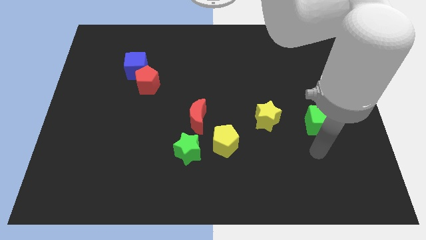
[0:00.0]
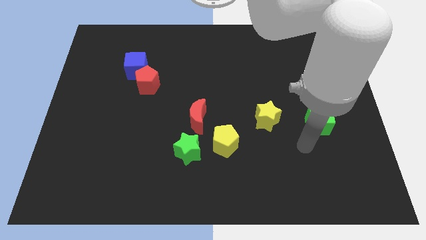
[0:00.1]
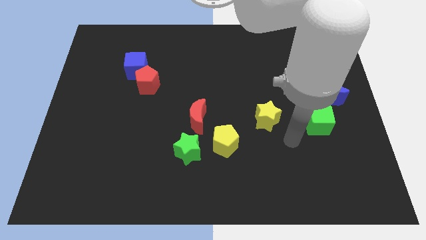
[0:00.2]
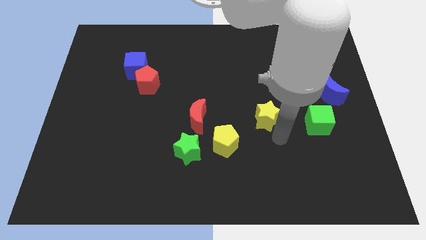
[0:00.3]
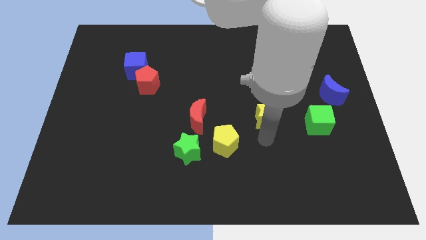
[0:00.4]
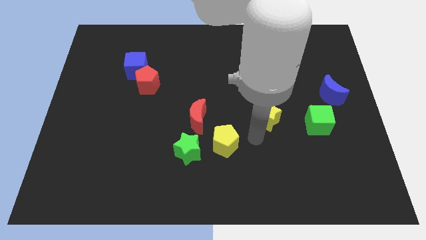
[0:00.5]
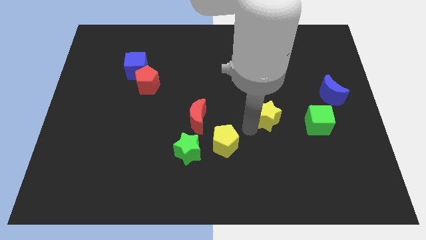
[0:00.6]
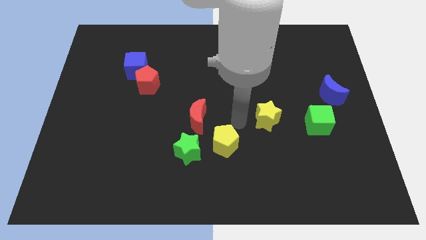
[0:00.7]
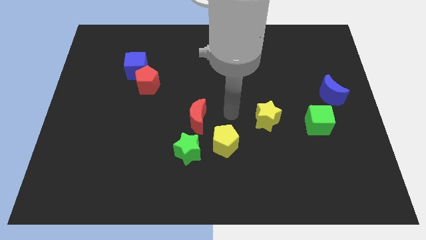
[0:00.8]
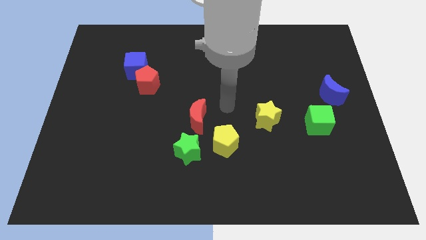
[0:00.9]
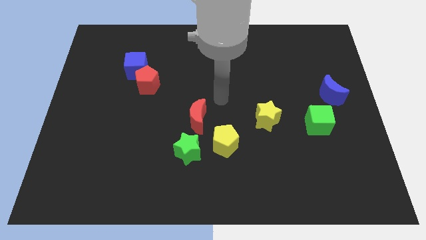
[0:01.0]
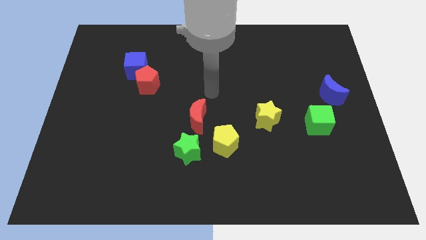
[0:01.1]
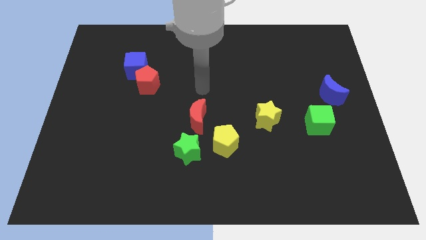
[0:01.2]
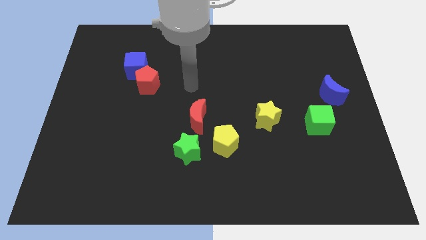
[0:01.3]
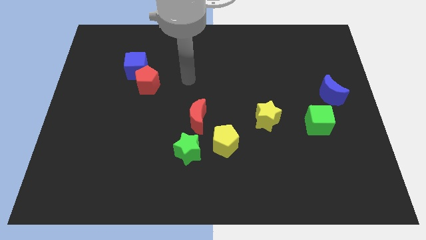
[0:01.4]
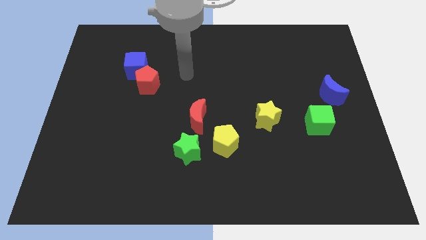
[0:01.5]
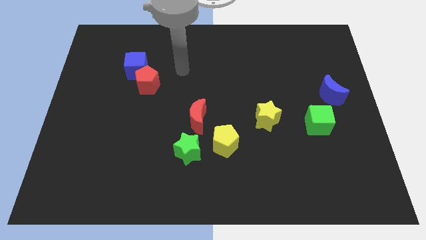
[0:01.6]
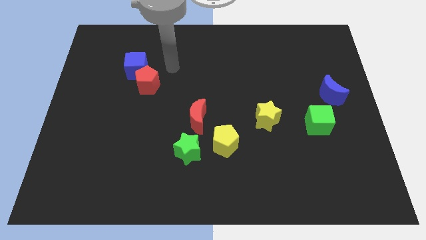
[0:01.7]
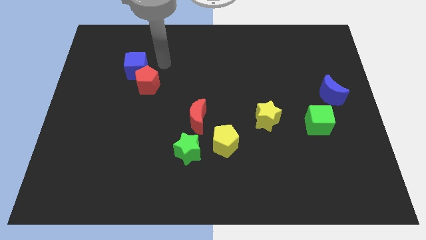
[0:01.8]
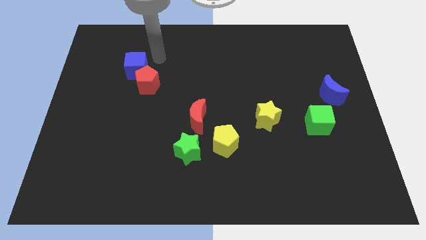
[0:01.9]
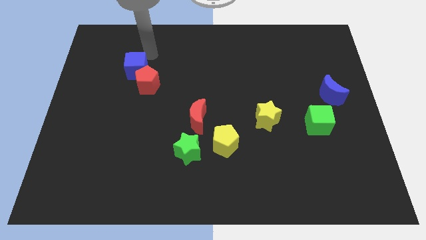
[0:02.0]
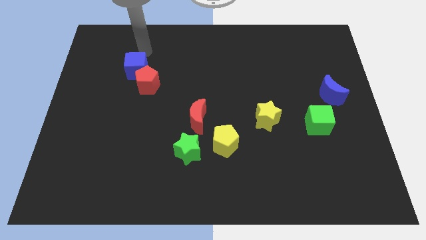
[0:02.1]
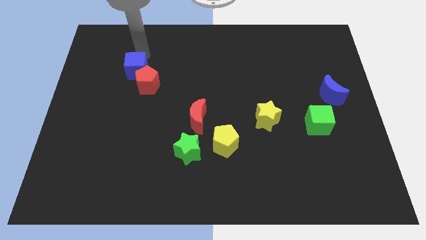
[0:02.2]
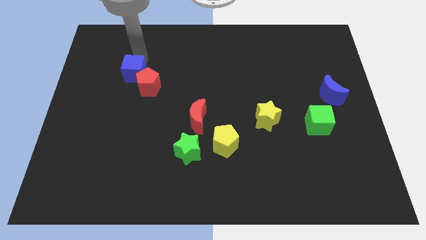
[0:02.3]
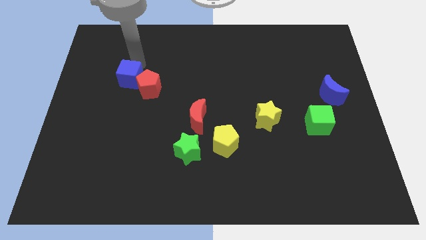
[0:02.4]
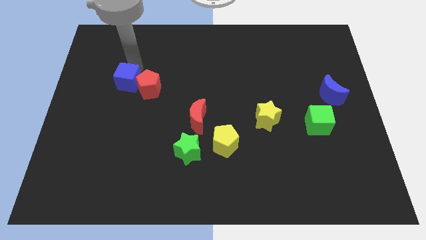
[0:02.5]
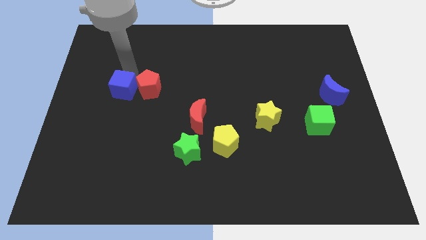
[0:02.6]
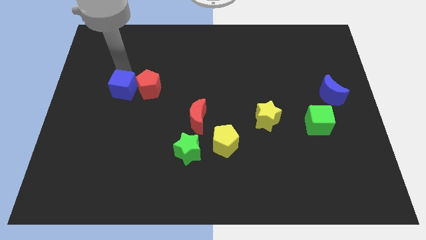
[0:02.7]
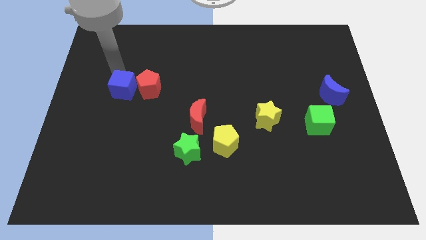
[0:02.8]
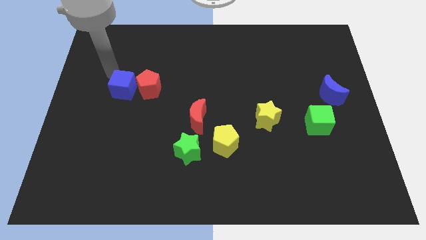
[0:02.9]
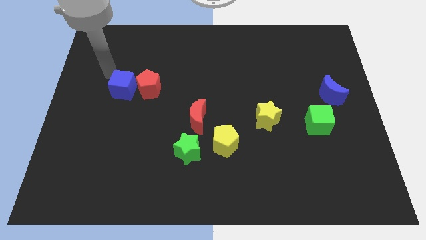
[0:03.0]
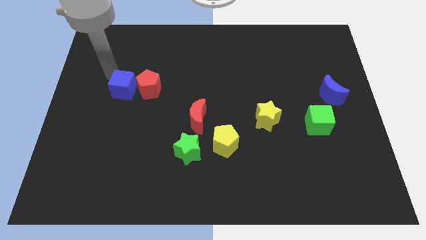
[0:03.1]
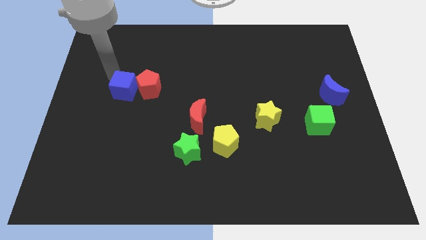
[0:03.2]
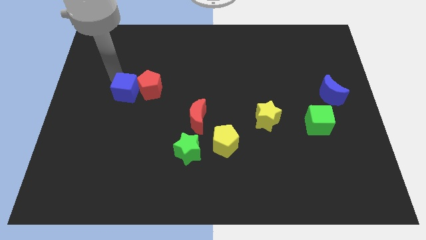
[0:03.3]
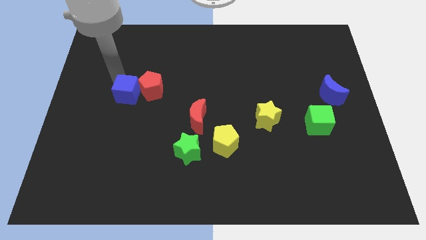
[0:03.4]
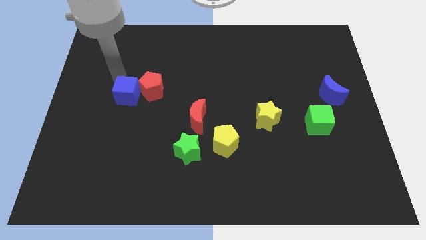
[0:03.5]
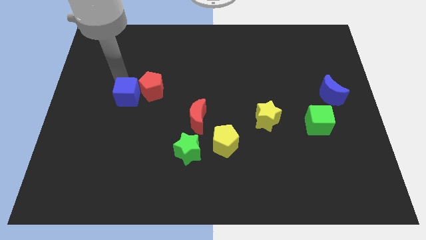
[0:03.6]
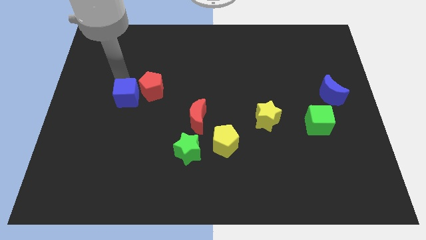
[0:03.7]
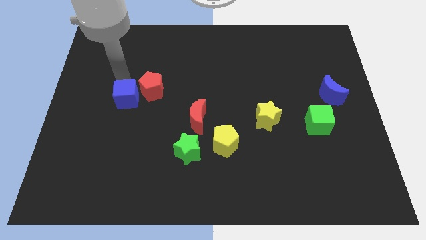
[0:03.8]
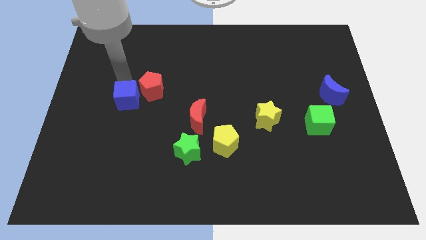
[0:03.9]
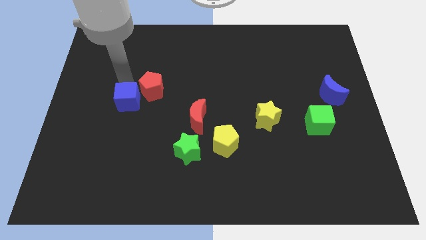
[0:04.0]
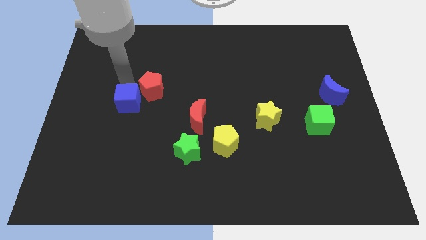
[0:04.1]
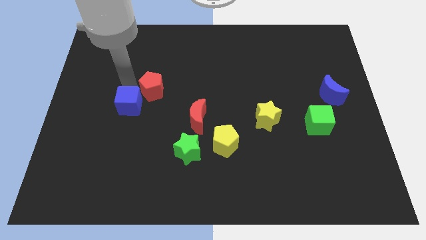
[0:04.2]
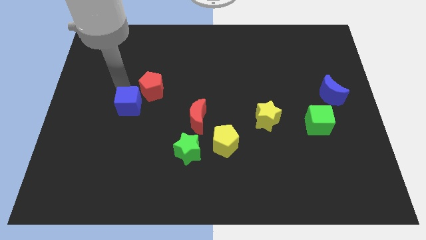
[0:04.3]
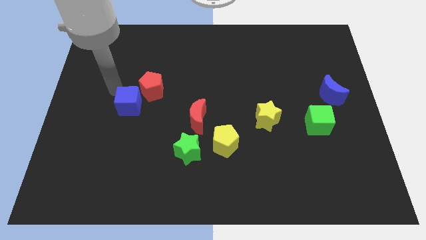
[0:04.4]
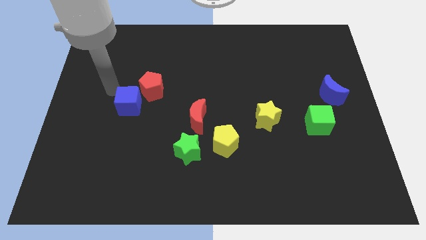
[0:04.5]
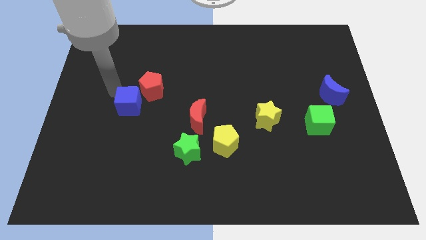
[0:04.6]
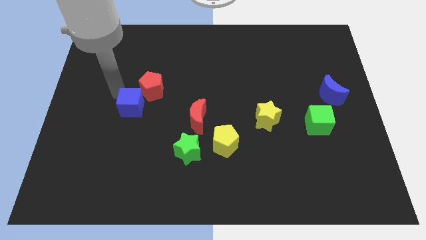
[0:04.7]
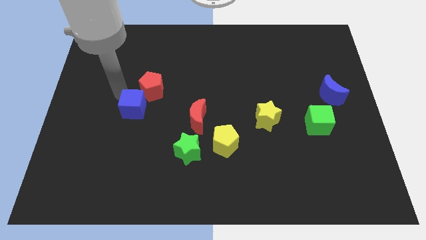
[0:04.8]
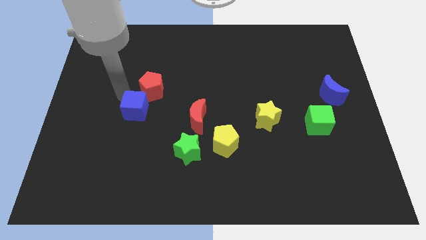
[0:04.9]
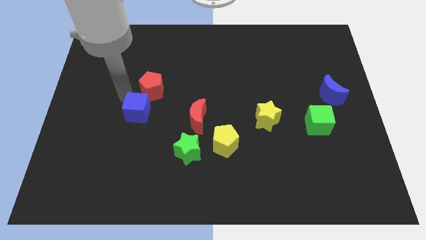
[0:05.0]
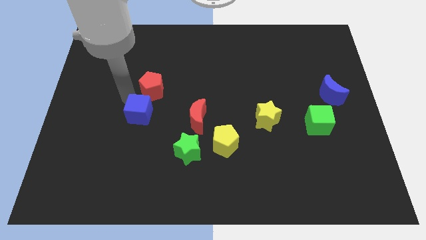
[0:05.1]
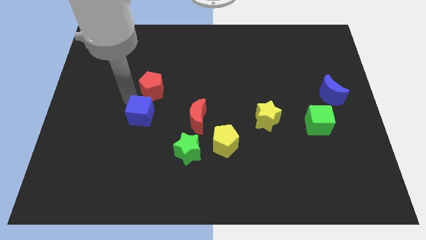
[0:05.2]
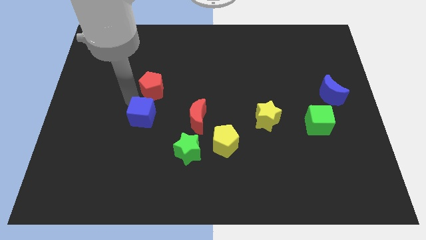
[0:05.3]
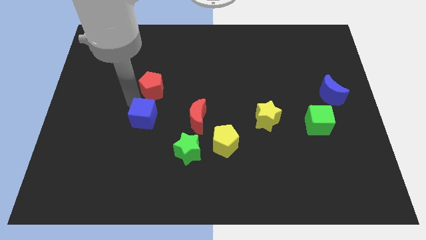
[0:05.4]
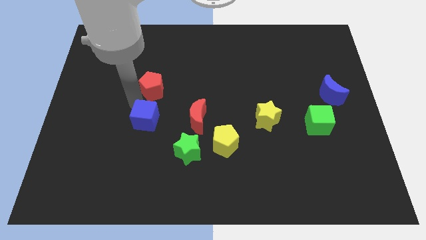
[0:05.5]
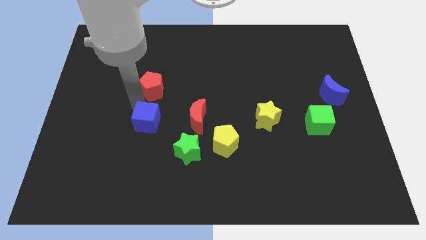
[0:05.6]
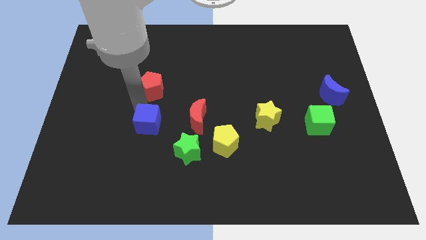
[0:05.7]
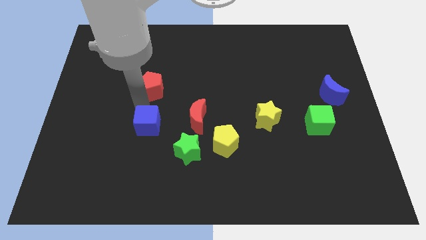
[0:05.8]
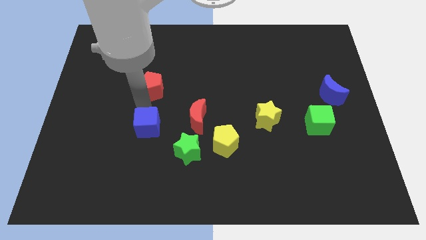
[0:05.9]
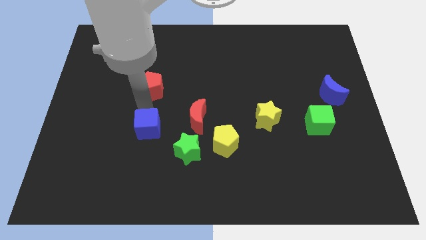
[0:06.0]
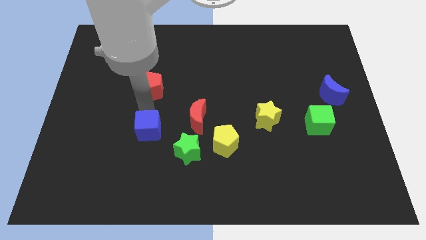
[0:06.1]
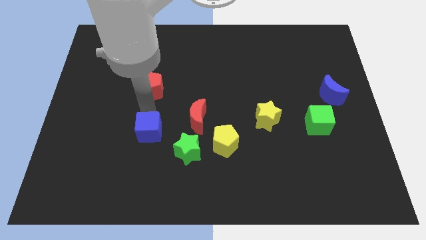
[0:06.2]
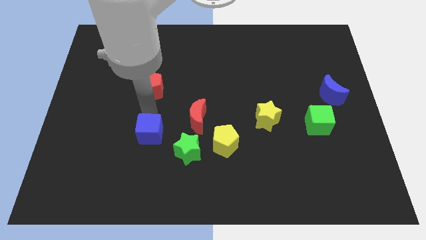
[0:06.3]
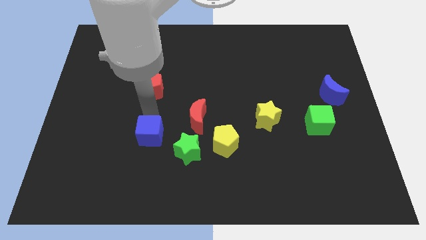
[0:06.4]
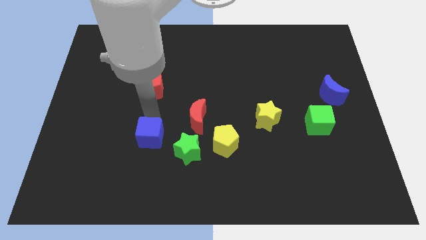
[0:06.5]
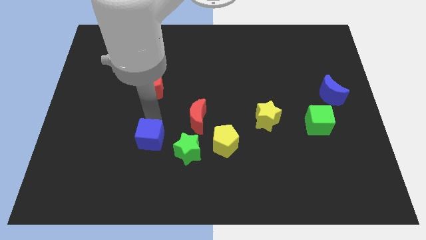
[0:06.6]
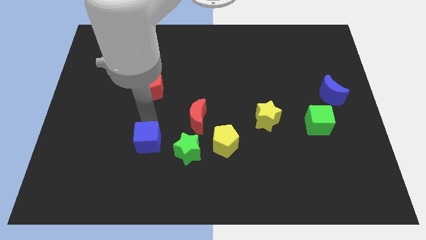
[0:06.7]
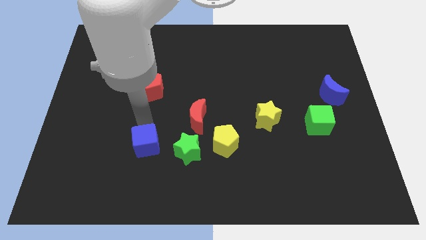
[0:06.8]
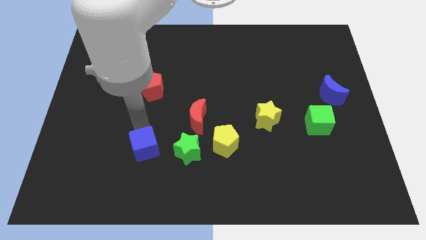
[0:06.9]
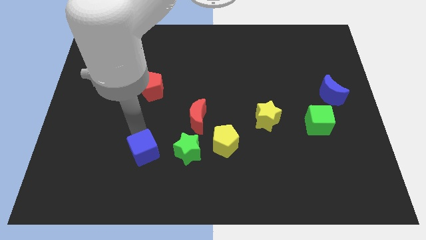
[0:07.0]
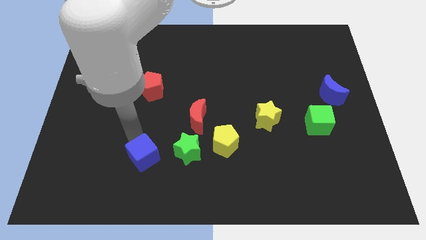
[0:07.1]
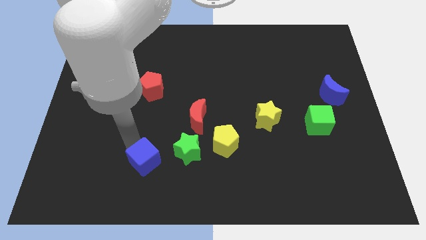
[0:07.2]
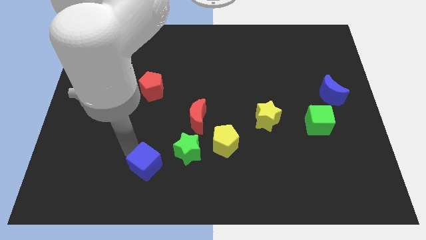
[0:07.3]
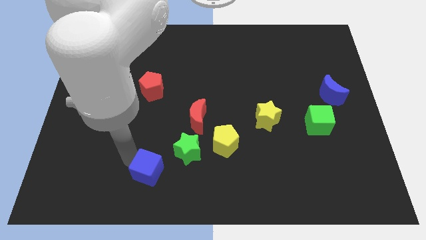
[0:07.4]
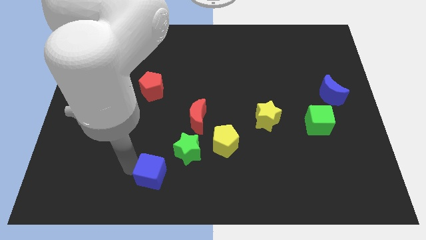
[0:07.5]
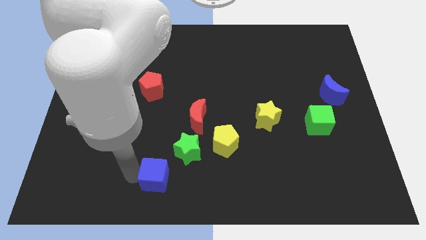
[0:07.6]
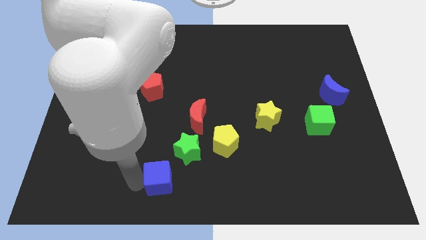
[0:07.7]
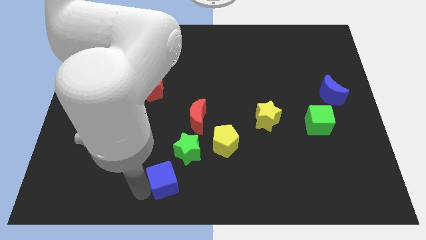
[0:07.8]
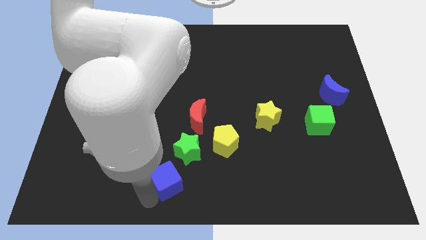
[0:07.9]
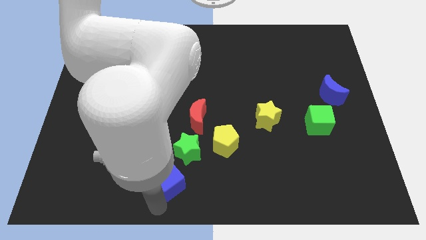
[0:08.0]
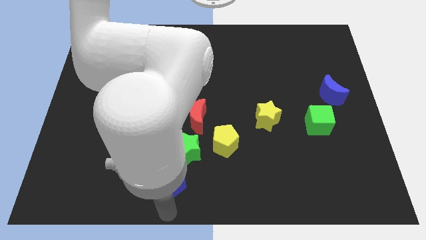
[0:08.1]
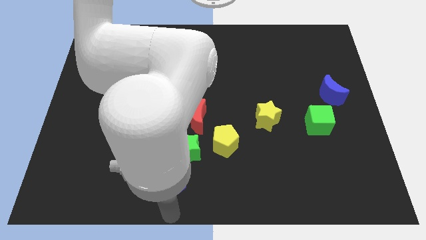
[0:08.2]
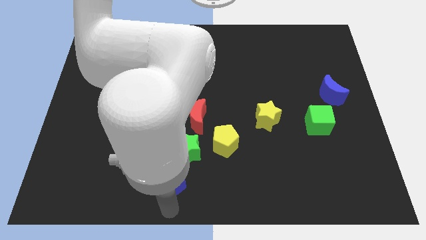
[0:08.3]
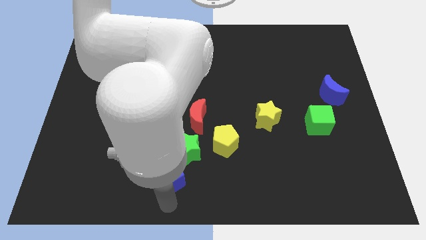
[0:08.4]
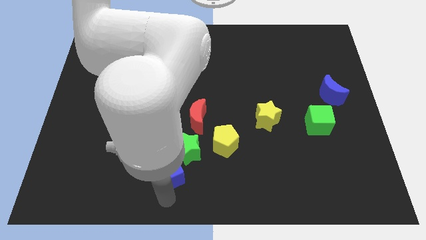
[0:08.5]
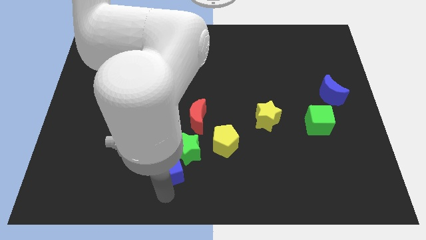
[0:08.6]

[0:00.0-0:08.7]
move the blue cube next to the green star
